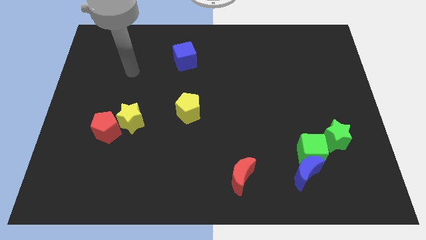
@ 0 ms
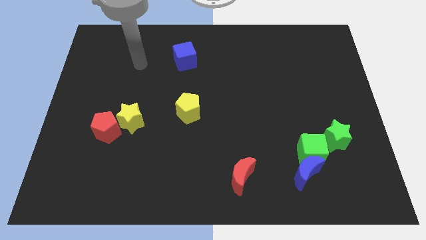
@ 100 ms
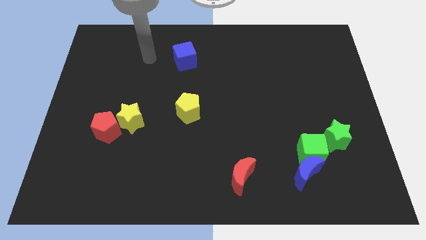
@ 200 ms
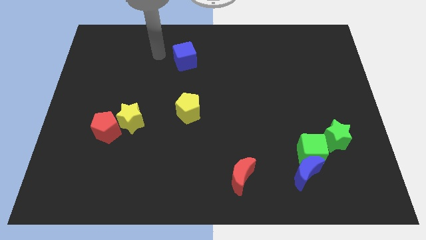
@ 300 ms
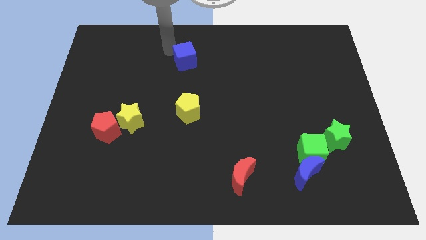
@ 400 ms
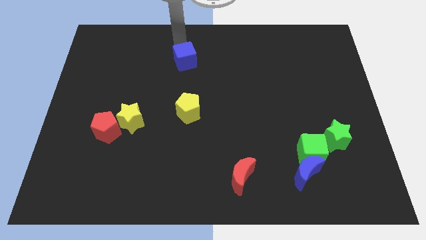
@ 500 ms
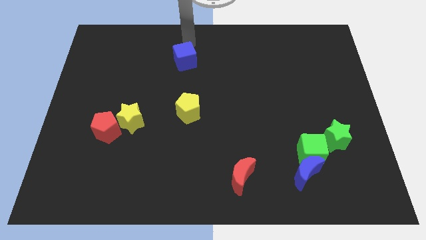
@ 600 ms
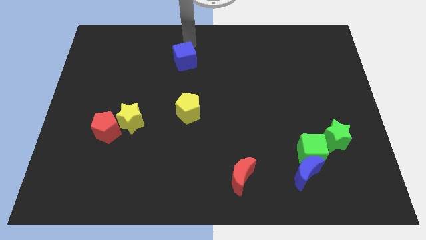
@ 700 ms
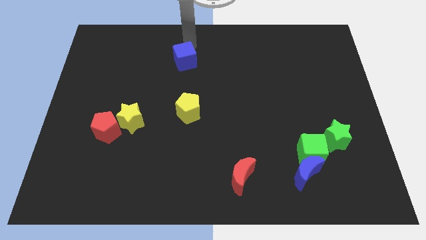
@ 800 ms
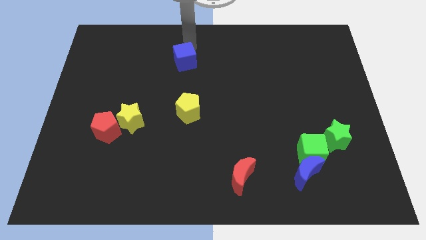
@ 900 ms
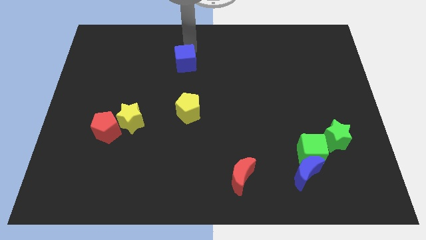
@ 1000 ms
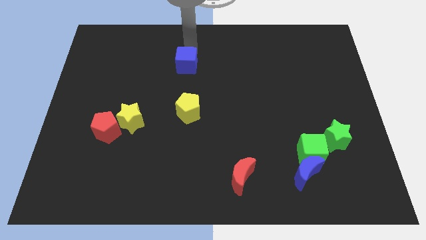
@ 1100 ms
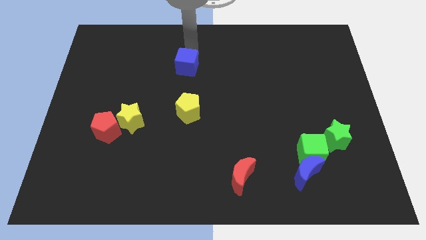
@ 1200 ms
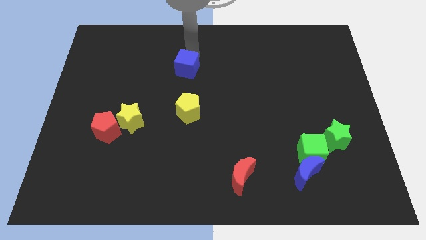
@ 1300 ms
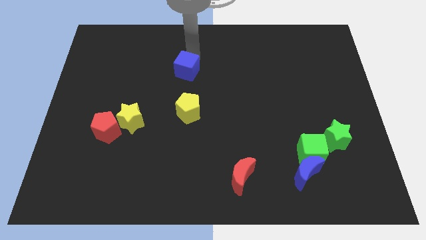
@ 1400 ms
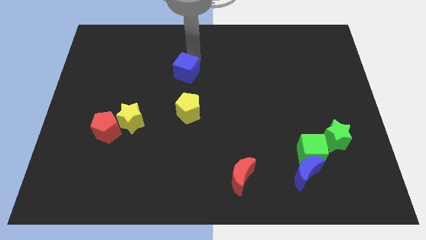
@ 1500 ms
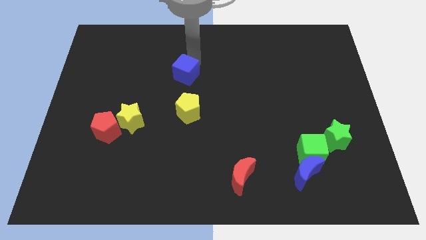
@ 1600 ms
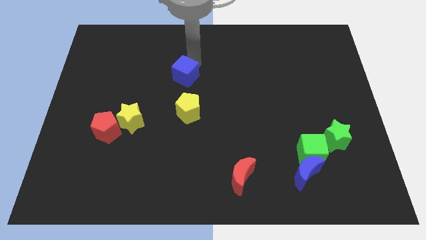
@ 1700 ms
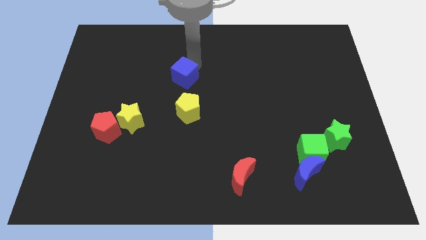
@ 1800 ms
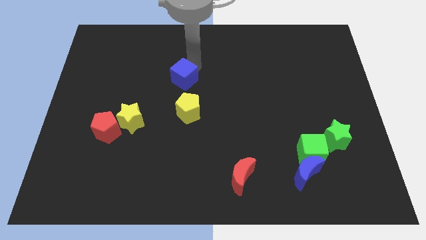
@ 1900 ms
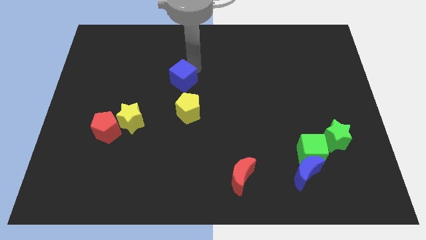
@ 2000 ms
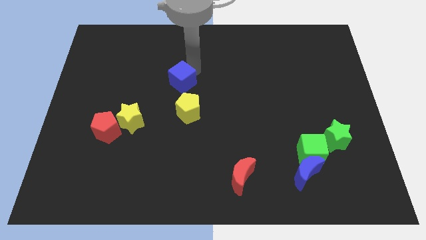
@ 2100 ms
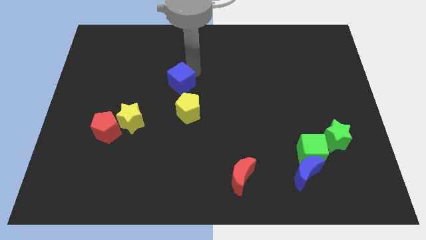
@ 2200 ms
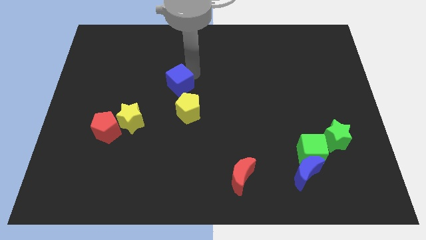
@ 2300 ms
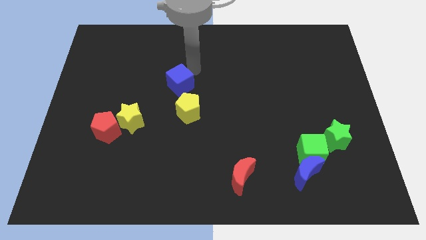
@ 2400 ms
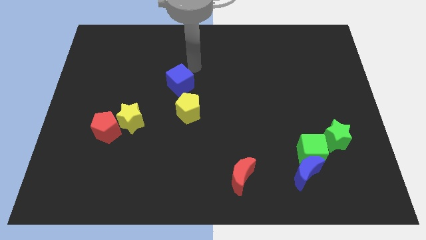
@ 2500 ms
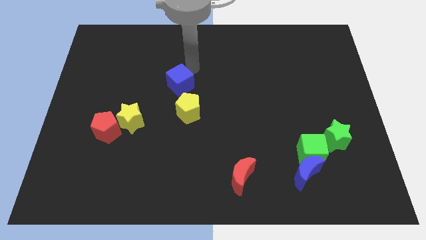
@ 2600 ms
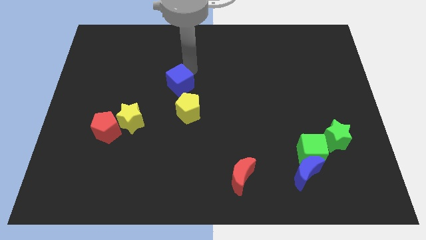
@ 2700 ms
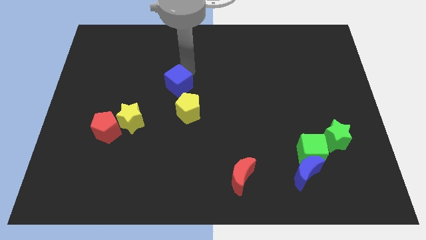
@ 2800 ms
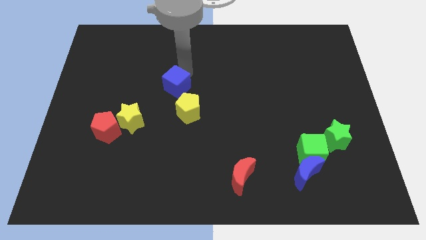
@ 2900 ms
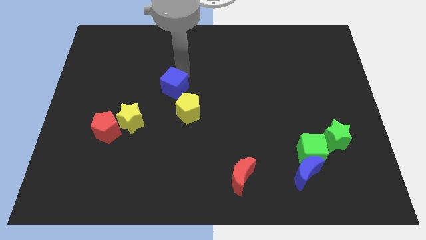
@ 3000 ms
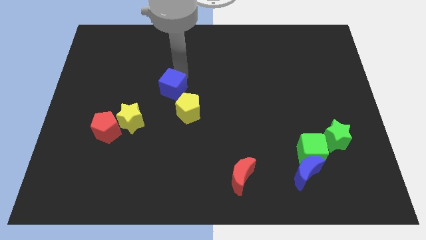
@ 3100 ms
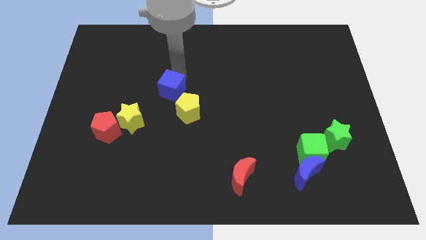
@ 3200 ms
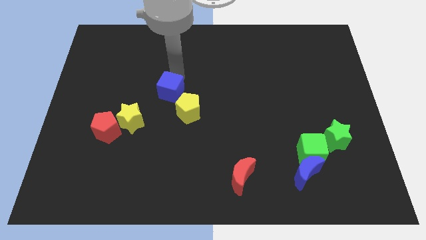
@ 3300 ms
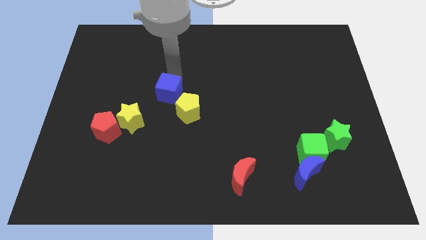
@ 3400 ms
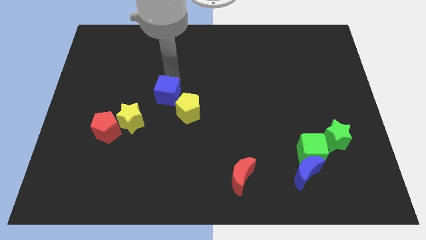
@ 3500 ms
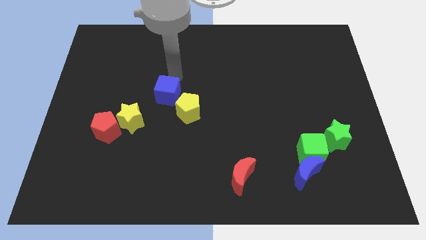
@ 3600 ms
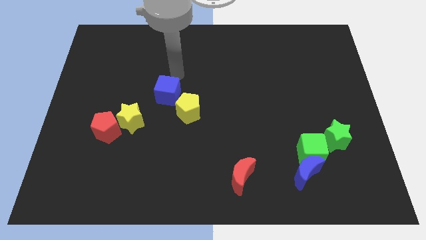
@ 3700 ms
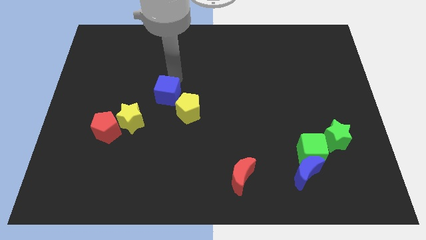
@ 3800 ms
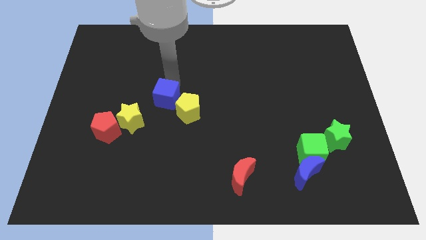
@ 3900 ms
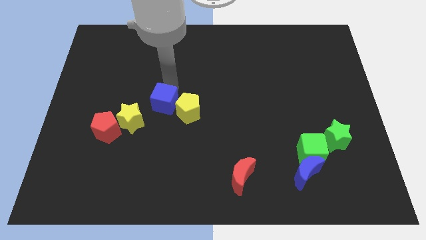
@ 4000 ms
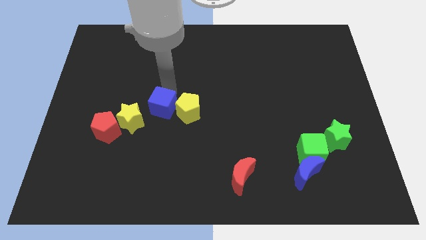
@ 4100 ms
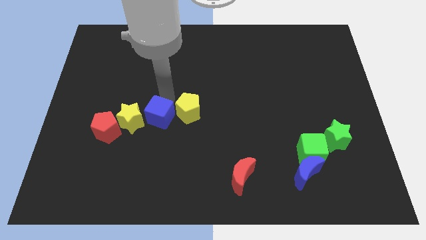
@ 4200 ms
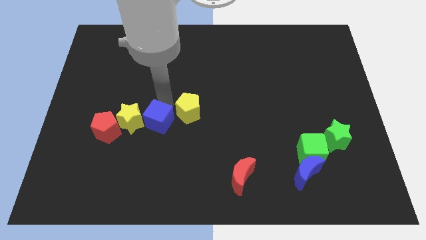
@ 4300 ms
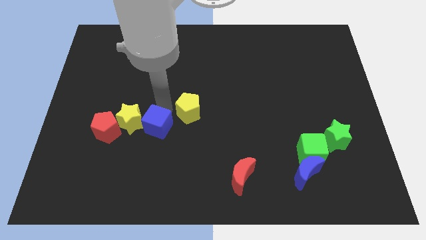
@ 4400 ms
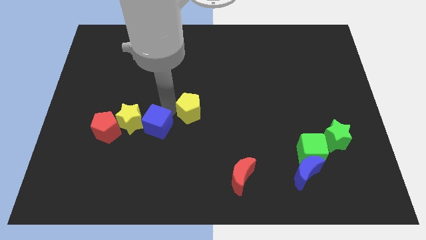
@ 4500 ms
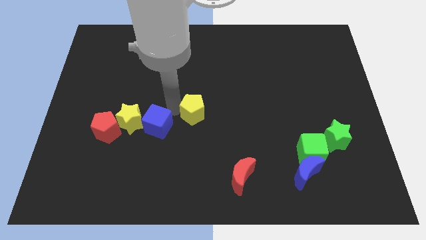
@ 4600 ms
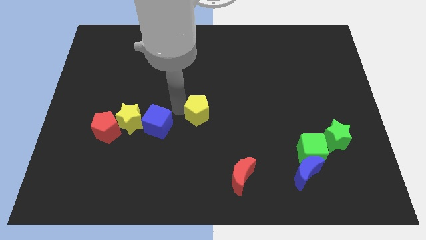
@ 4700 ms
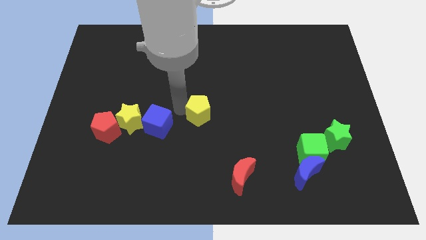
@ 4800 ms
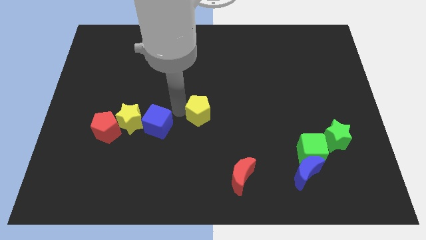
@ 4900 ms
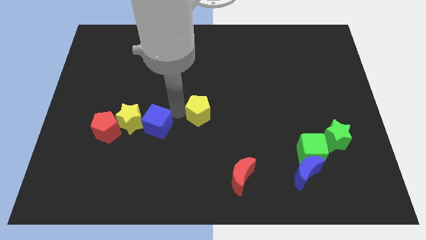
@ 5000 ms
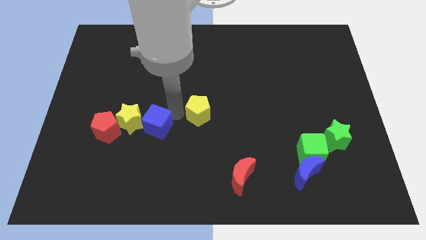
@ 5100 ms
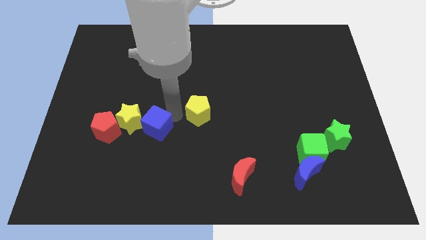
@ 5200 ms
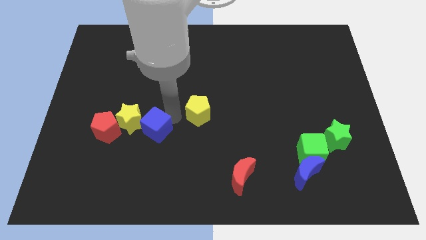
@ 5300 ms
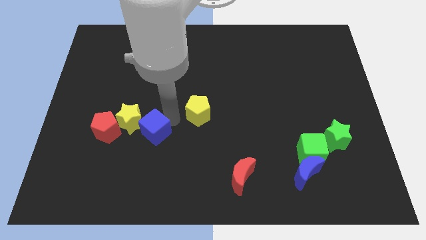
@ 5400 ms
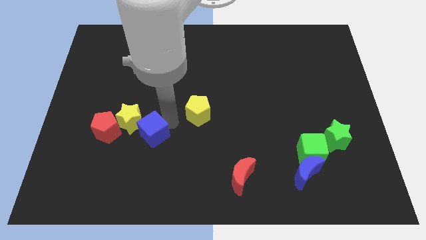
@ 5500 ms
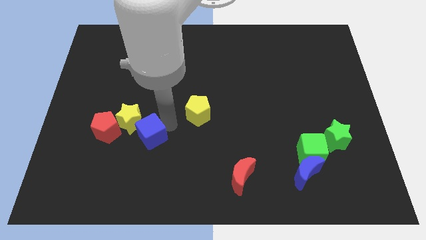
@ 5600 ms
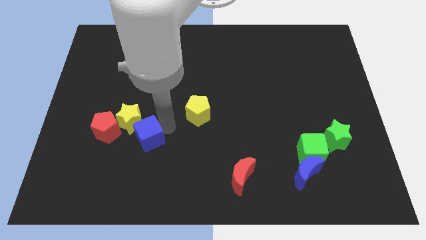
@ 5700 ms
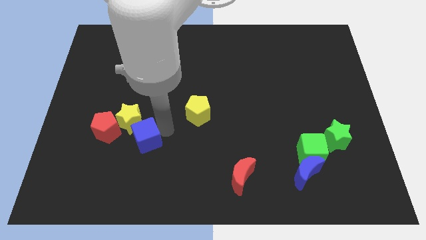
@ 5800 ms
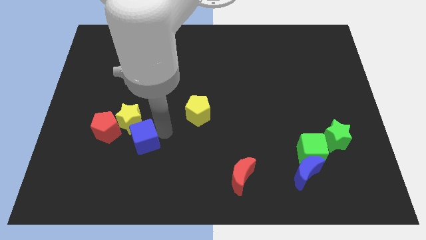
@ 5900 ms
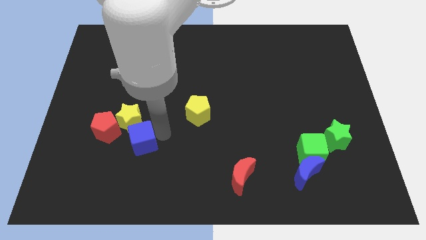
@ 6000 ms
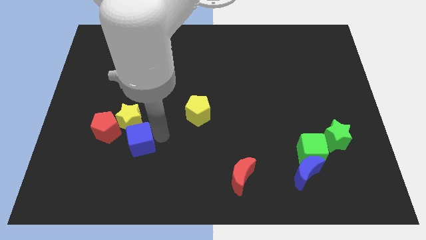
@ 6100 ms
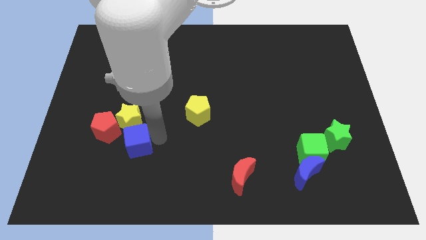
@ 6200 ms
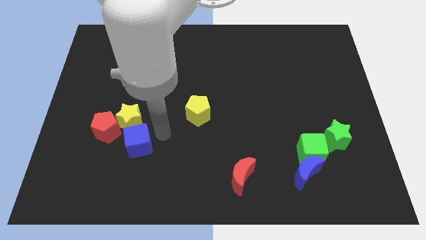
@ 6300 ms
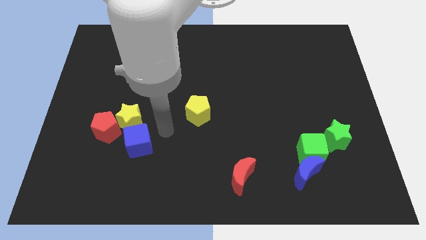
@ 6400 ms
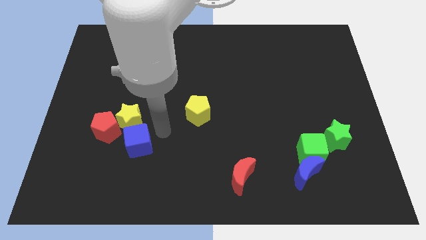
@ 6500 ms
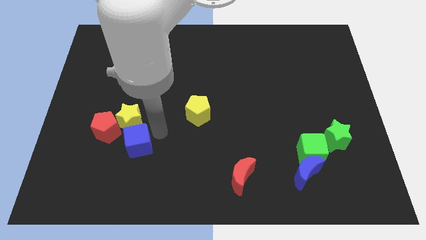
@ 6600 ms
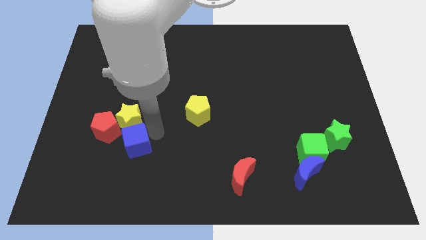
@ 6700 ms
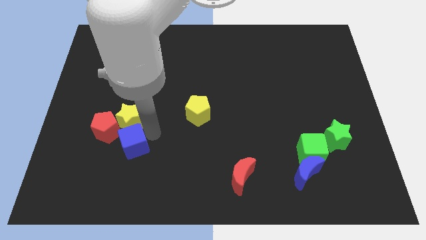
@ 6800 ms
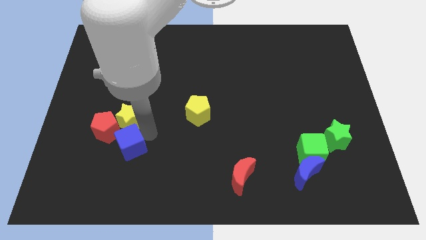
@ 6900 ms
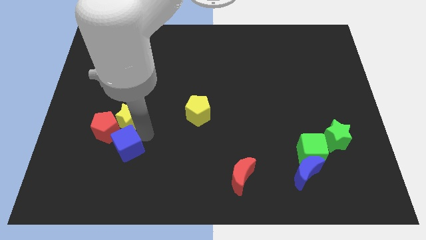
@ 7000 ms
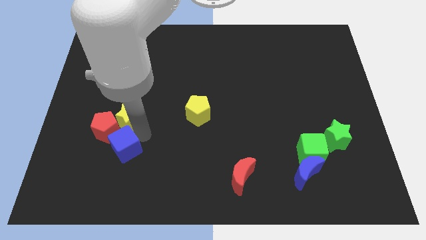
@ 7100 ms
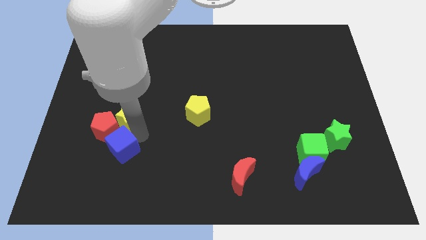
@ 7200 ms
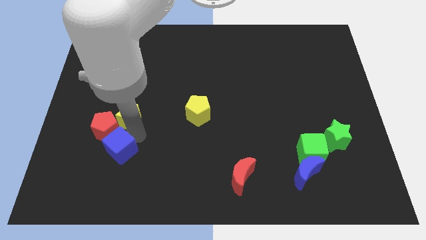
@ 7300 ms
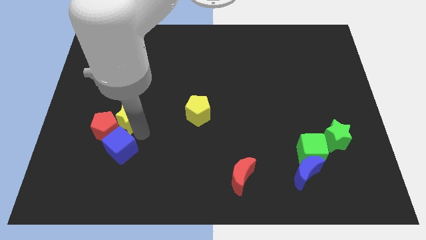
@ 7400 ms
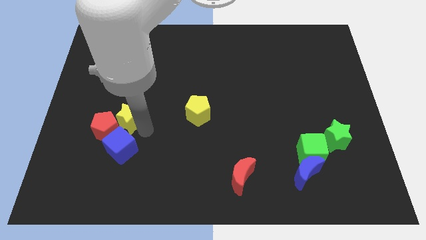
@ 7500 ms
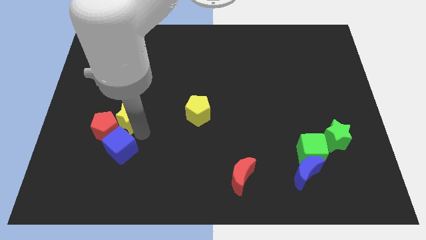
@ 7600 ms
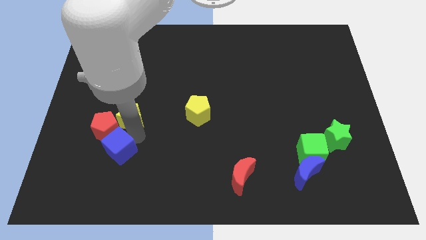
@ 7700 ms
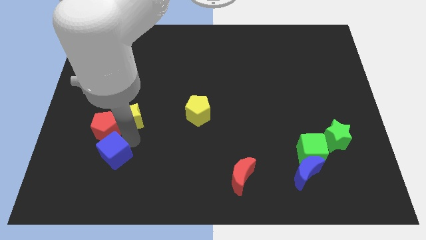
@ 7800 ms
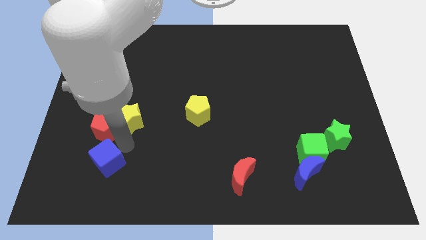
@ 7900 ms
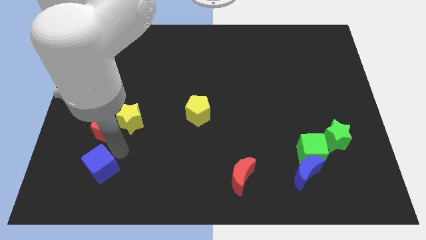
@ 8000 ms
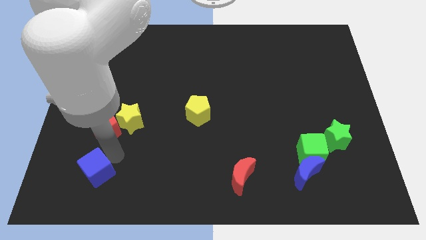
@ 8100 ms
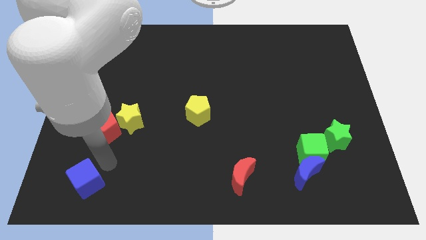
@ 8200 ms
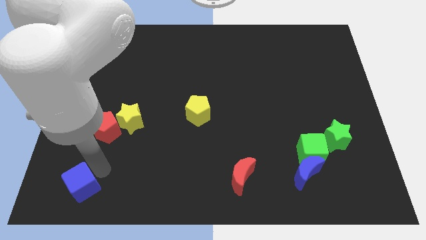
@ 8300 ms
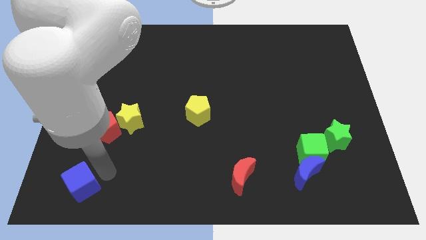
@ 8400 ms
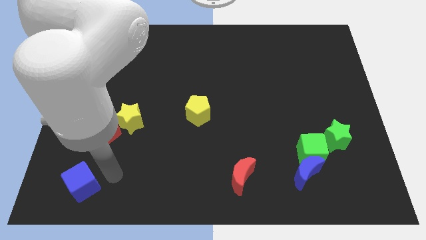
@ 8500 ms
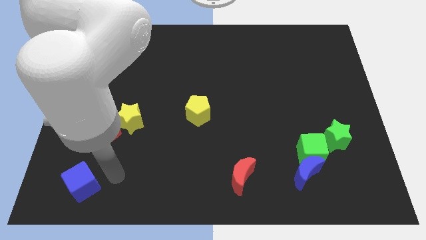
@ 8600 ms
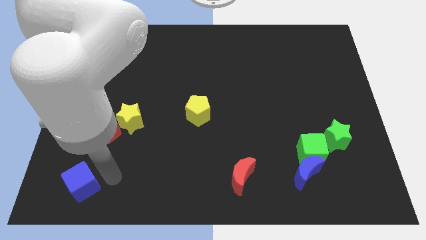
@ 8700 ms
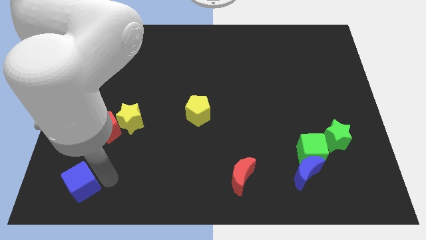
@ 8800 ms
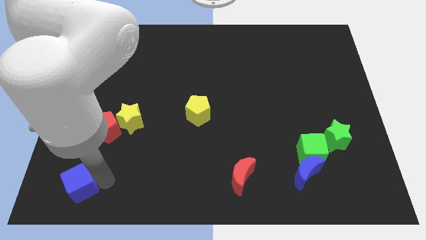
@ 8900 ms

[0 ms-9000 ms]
move the blue cube to the bottom left of the board
